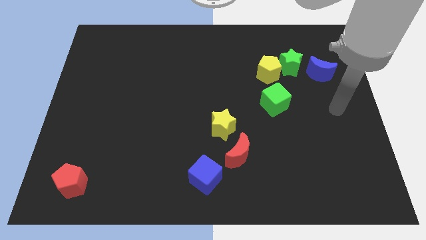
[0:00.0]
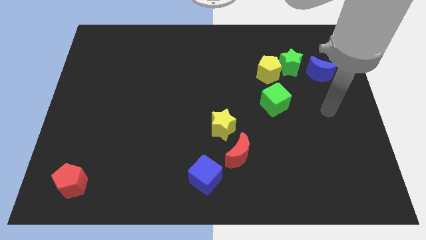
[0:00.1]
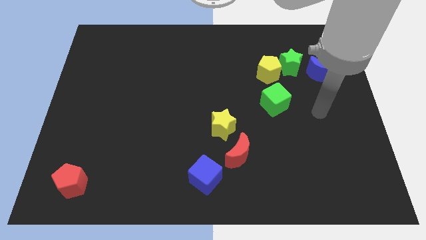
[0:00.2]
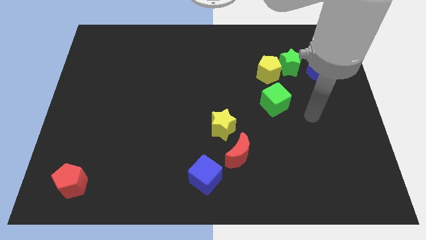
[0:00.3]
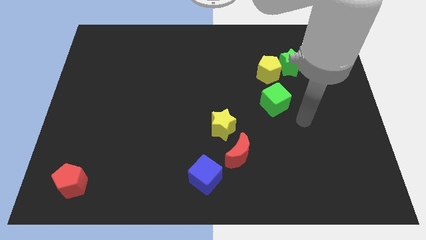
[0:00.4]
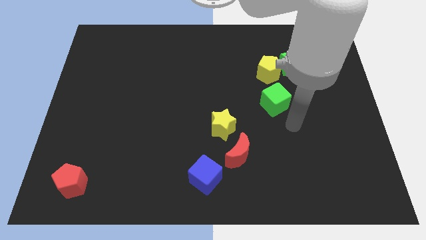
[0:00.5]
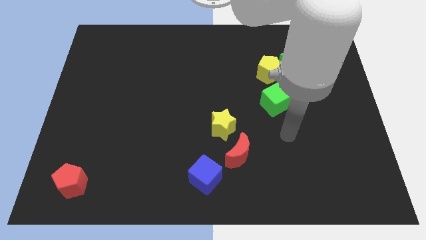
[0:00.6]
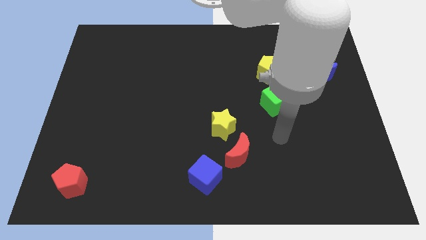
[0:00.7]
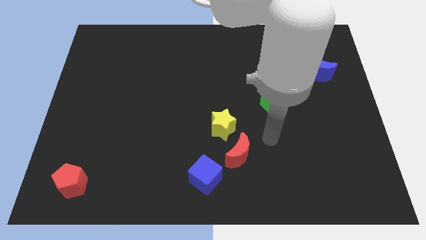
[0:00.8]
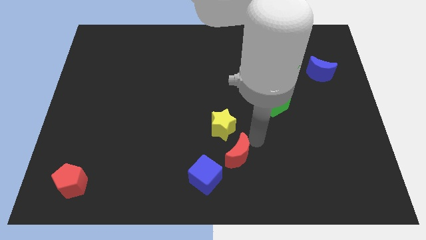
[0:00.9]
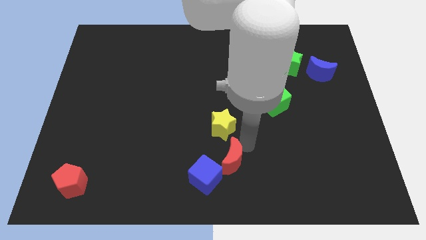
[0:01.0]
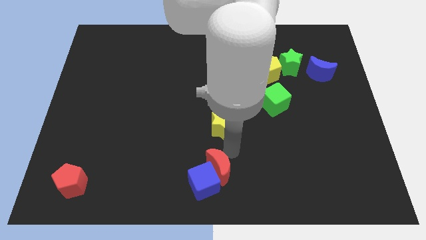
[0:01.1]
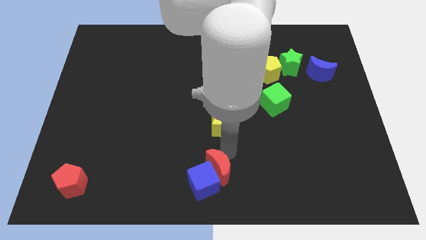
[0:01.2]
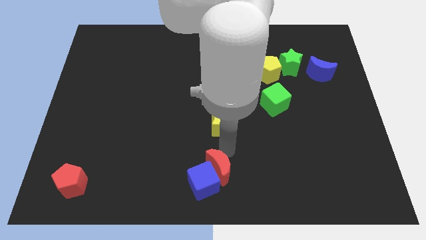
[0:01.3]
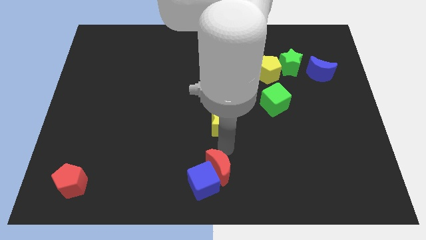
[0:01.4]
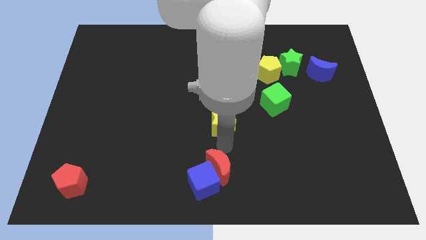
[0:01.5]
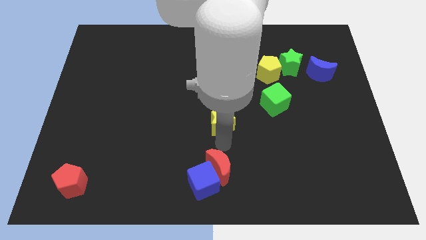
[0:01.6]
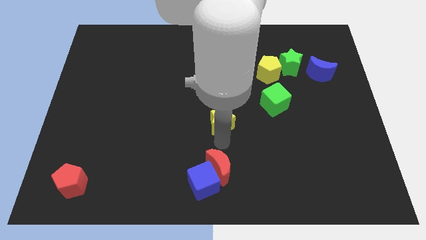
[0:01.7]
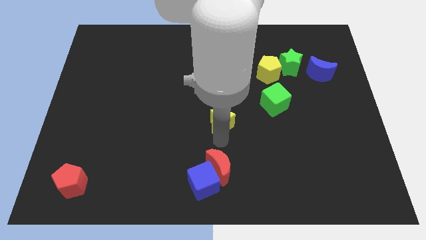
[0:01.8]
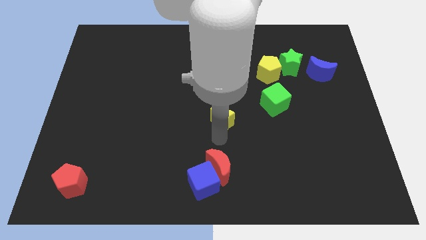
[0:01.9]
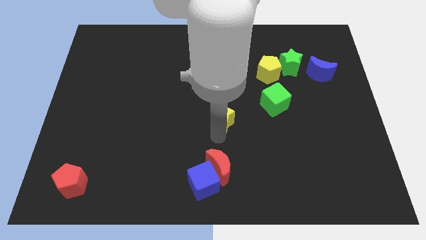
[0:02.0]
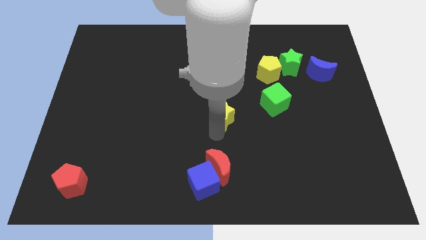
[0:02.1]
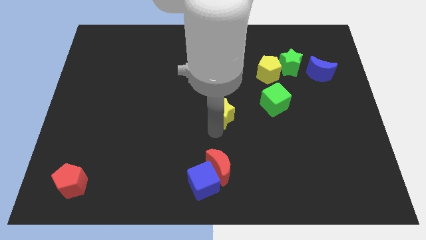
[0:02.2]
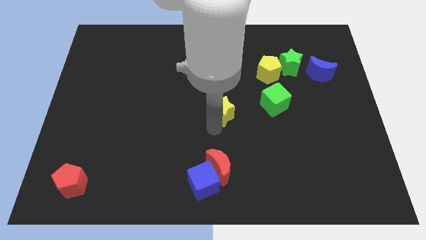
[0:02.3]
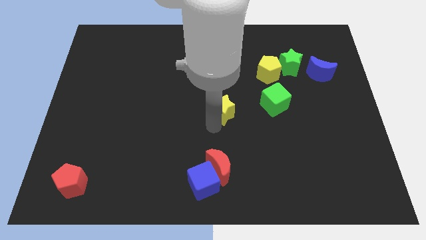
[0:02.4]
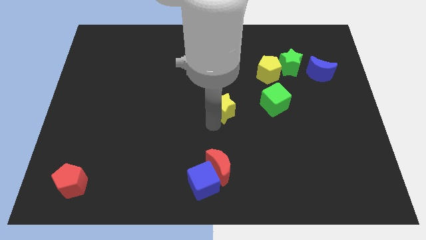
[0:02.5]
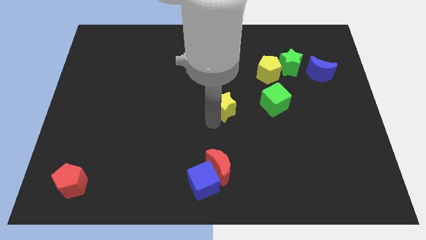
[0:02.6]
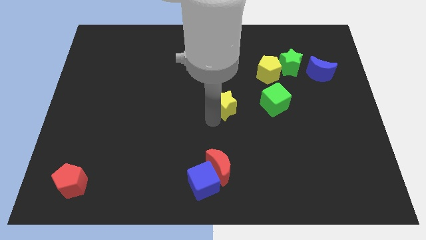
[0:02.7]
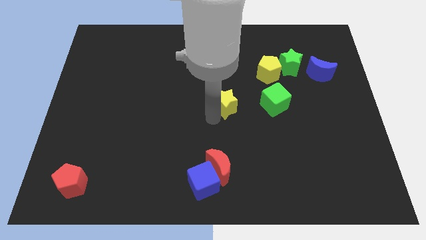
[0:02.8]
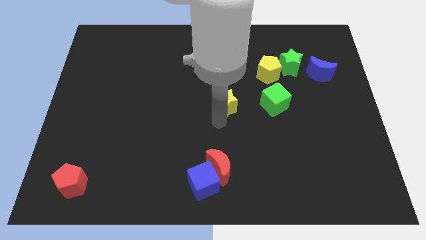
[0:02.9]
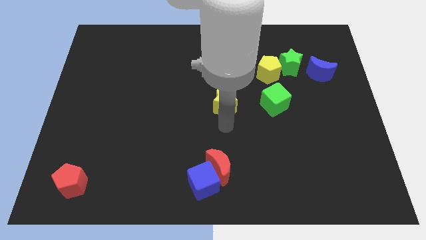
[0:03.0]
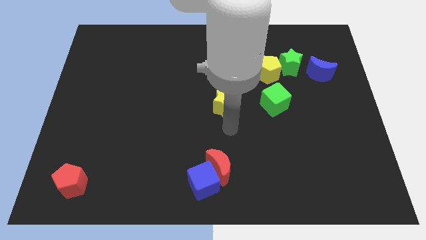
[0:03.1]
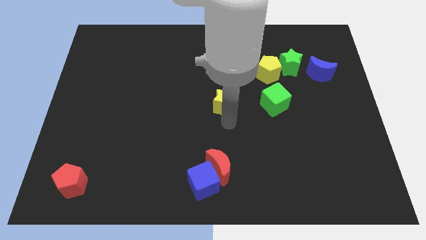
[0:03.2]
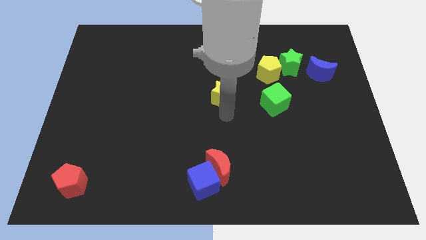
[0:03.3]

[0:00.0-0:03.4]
move the yellow star a bit upwards

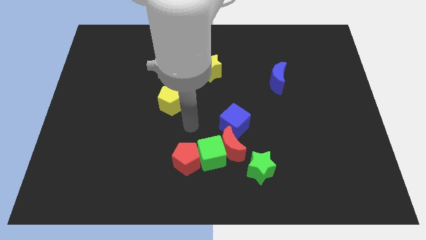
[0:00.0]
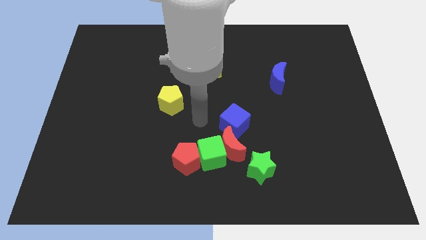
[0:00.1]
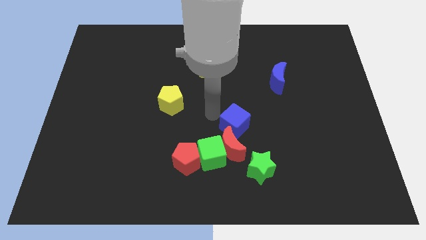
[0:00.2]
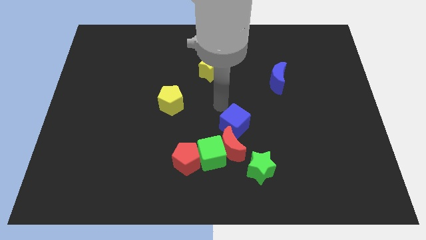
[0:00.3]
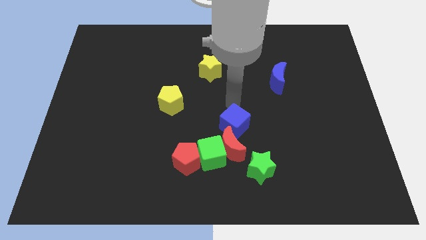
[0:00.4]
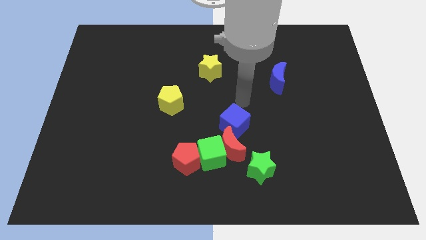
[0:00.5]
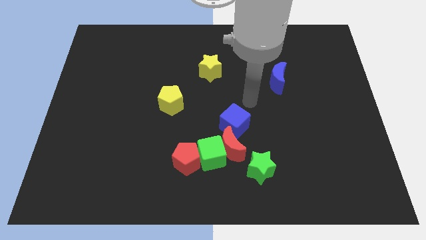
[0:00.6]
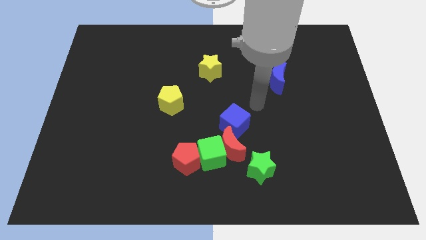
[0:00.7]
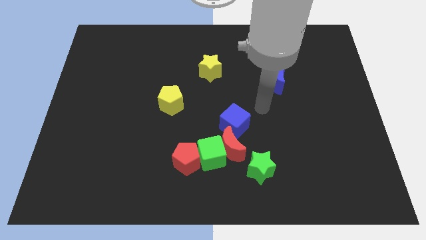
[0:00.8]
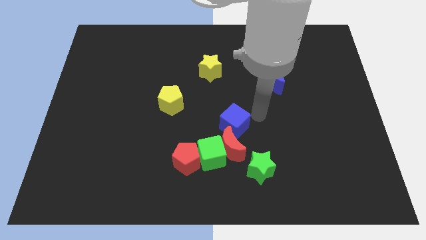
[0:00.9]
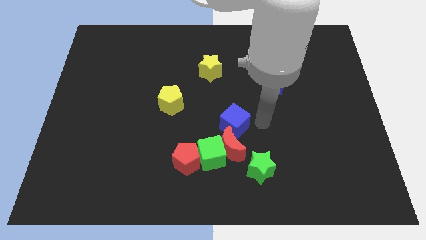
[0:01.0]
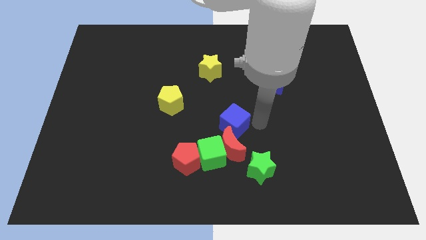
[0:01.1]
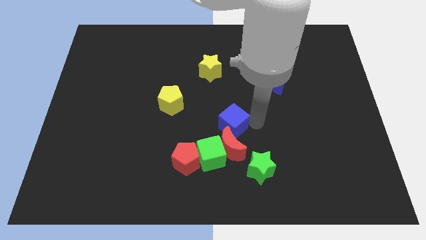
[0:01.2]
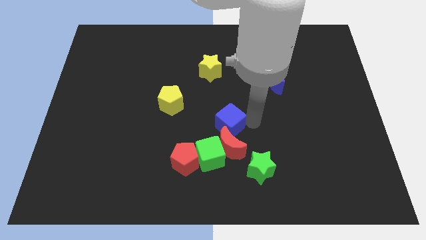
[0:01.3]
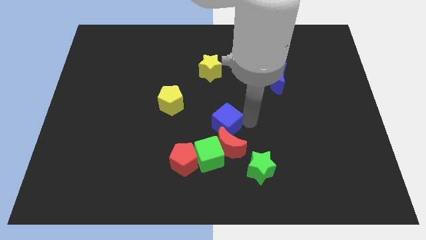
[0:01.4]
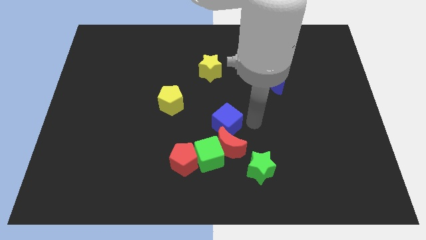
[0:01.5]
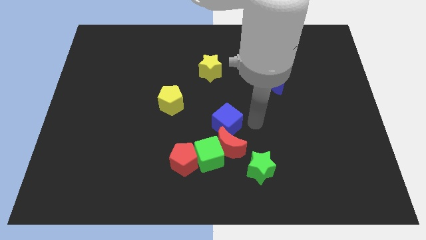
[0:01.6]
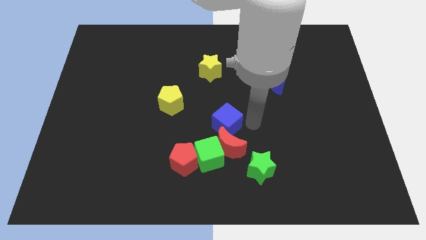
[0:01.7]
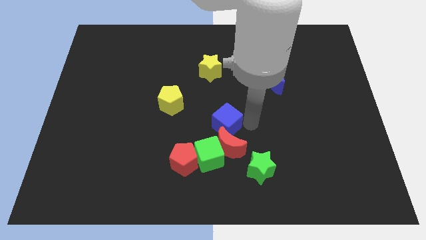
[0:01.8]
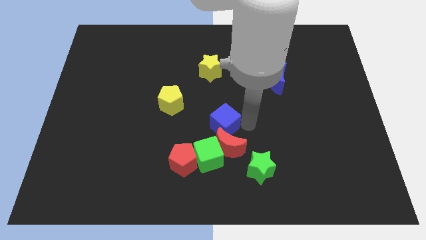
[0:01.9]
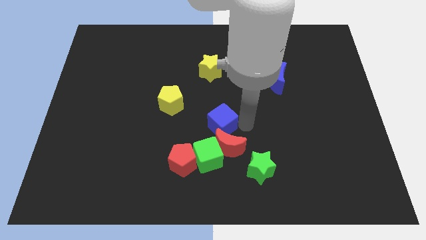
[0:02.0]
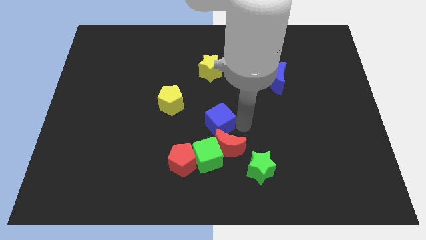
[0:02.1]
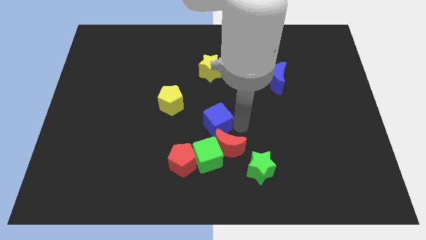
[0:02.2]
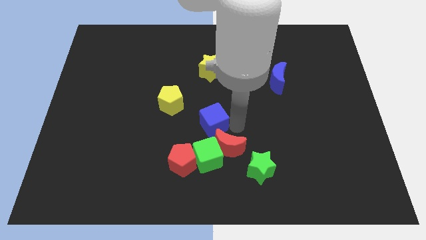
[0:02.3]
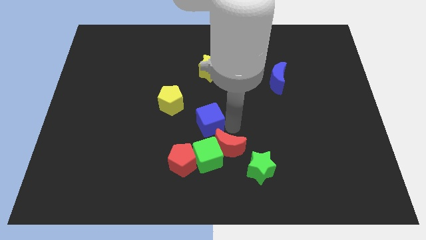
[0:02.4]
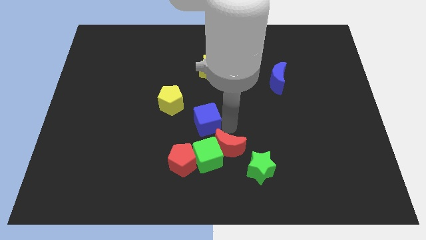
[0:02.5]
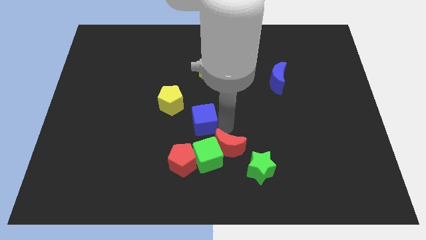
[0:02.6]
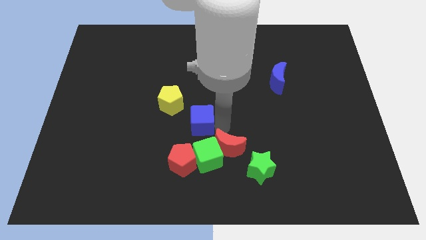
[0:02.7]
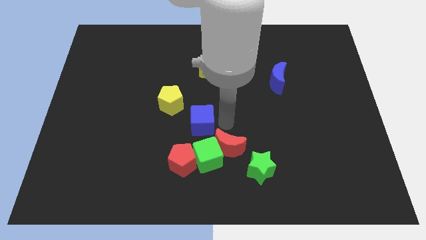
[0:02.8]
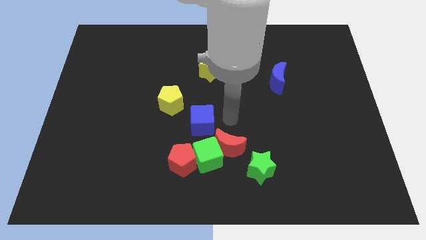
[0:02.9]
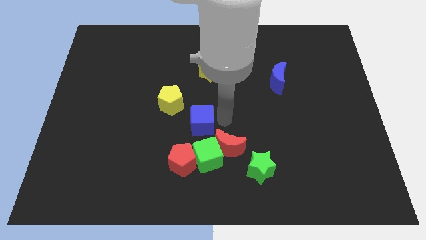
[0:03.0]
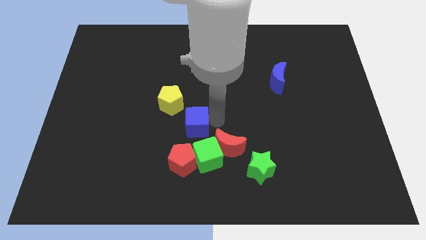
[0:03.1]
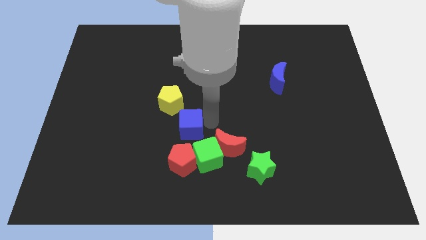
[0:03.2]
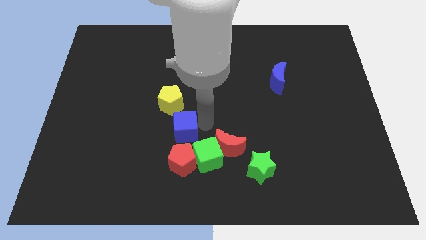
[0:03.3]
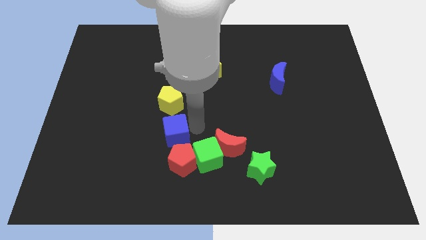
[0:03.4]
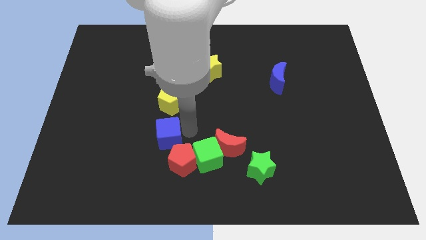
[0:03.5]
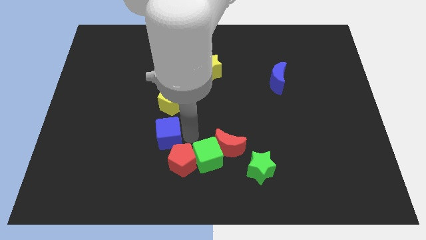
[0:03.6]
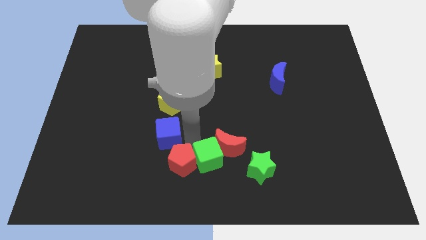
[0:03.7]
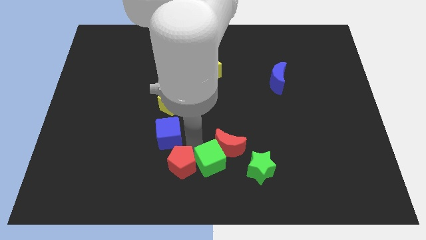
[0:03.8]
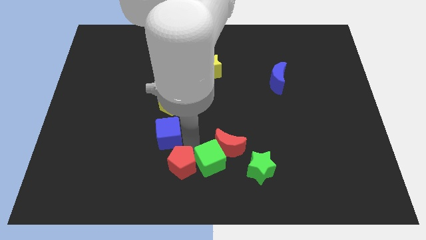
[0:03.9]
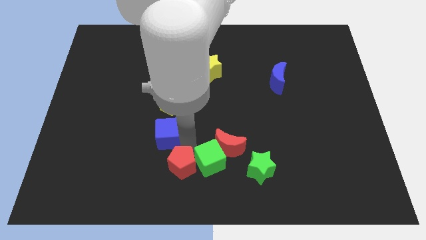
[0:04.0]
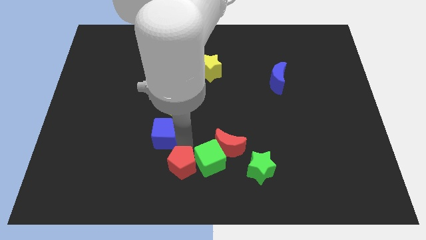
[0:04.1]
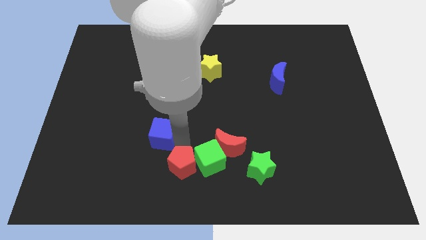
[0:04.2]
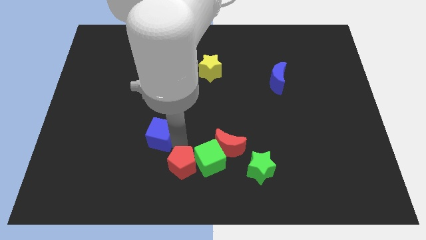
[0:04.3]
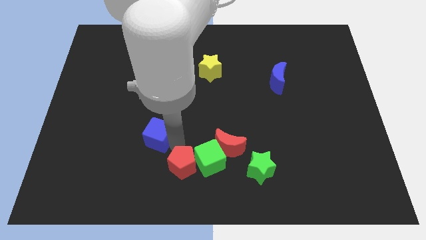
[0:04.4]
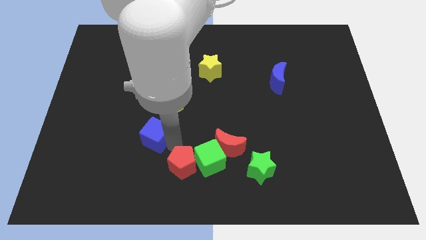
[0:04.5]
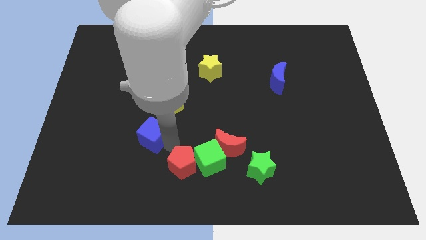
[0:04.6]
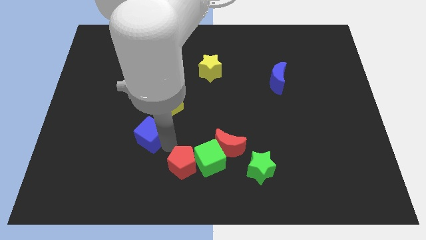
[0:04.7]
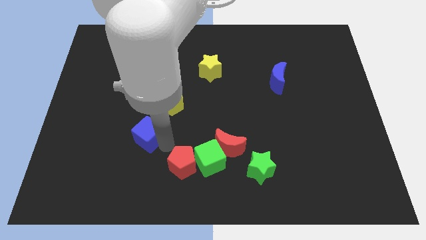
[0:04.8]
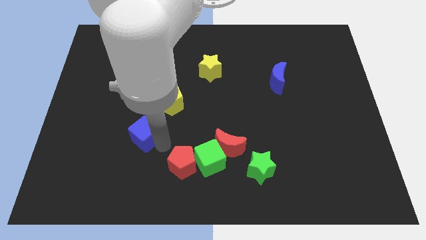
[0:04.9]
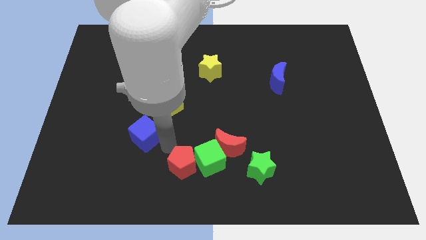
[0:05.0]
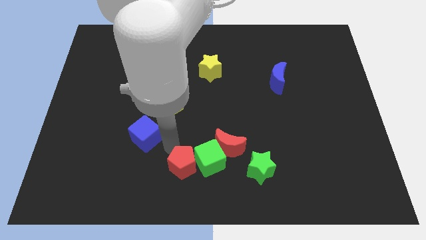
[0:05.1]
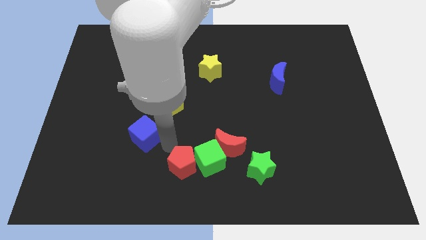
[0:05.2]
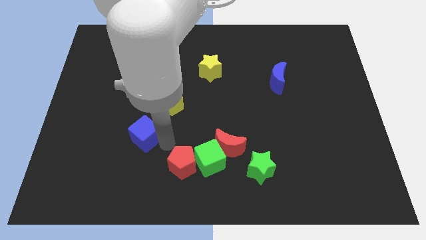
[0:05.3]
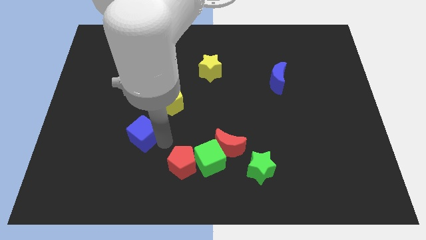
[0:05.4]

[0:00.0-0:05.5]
slide the blue cube left
